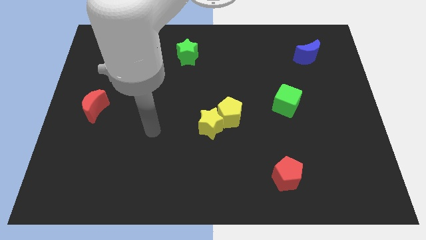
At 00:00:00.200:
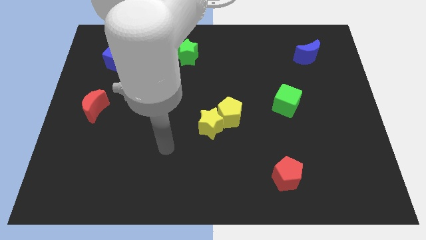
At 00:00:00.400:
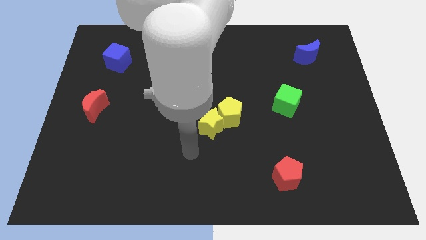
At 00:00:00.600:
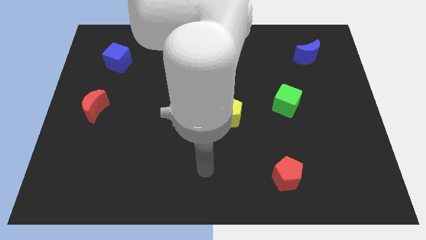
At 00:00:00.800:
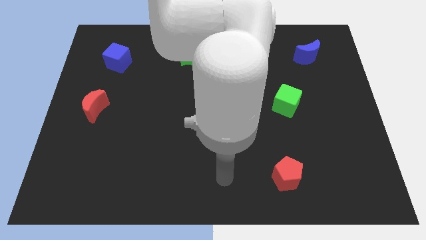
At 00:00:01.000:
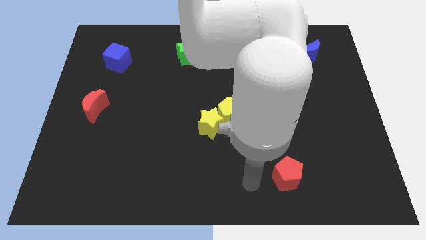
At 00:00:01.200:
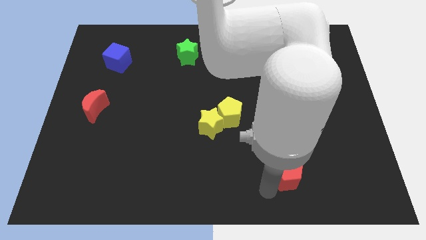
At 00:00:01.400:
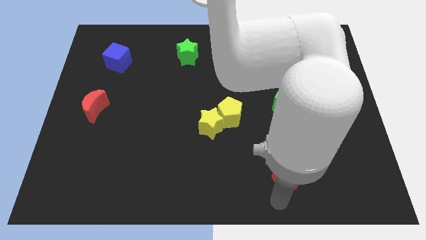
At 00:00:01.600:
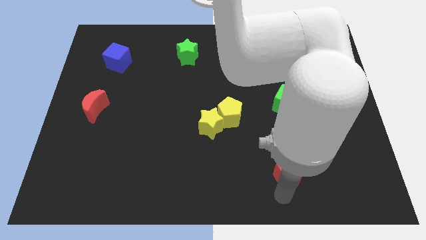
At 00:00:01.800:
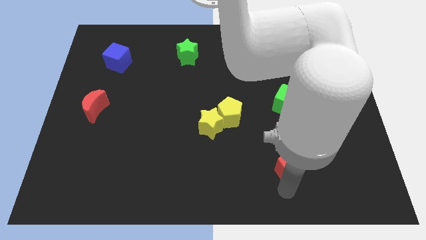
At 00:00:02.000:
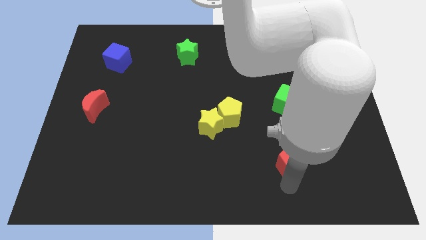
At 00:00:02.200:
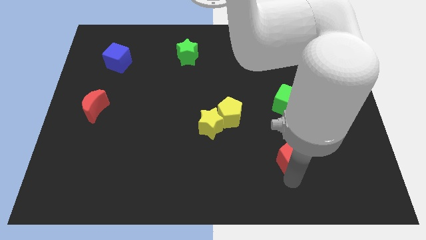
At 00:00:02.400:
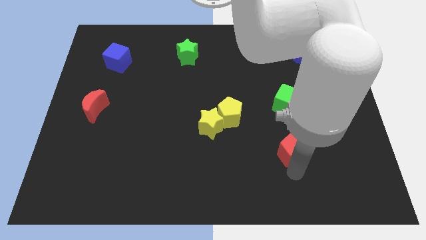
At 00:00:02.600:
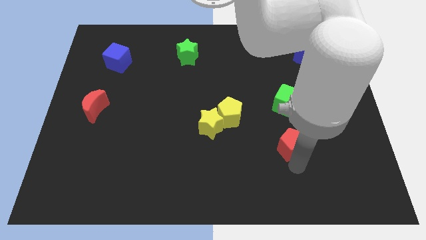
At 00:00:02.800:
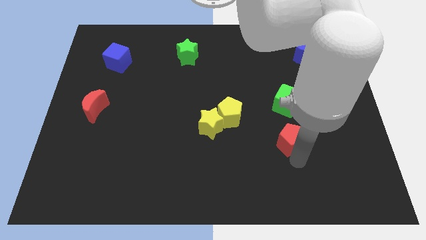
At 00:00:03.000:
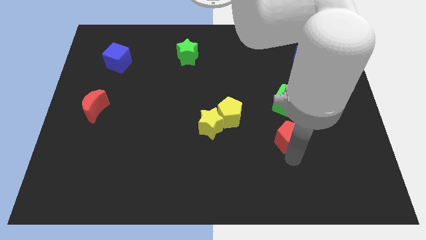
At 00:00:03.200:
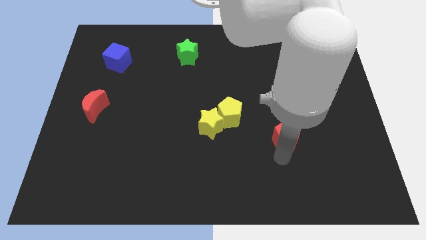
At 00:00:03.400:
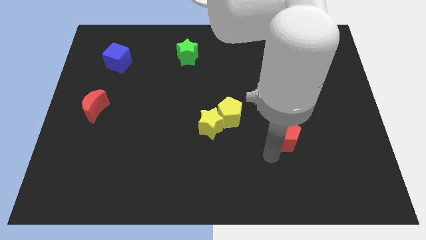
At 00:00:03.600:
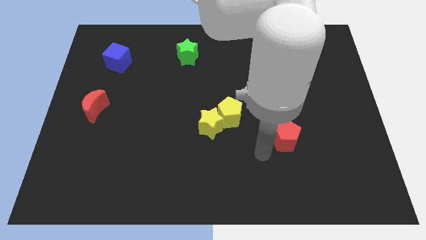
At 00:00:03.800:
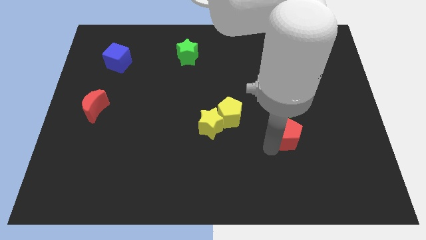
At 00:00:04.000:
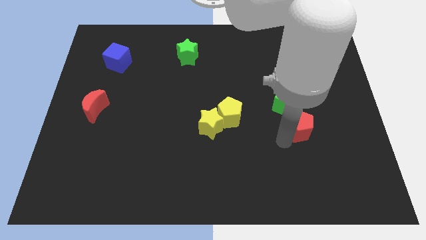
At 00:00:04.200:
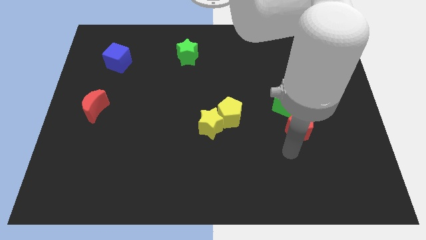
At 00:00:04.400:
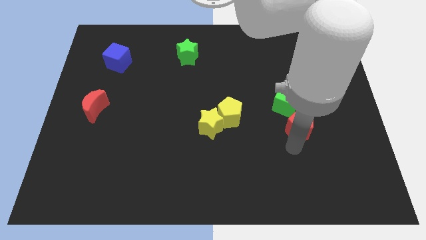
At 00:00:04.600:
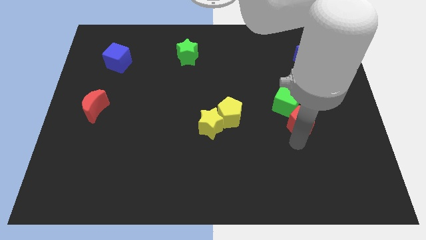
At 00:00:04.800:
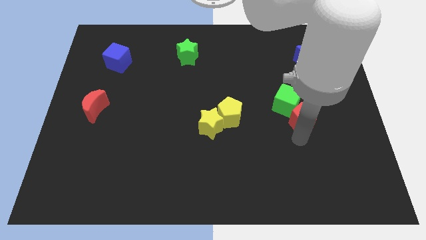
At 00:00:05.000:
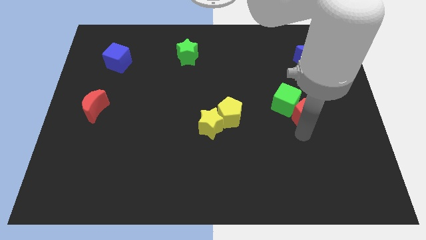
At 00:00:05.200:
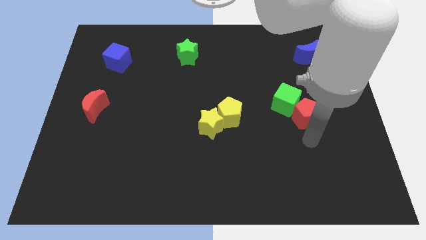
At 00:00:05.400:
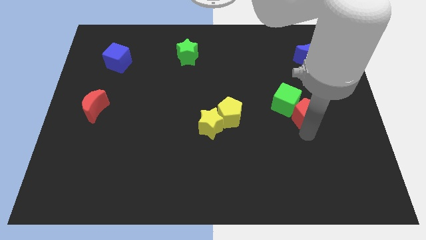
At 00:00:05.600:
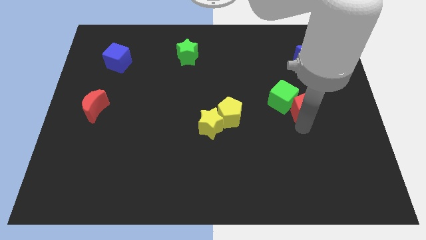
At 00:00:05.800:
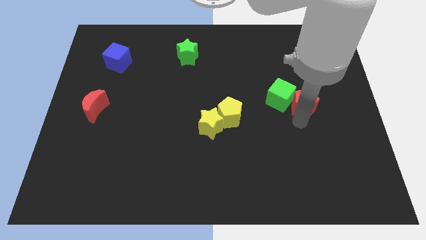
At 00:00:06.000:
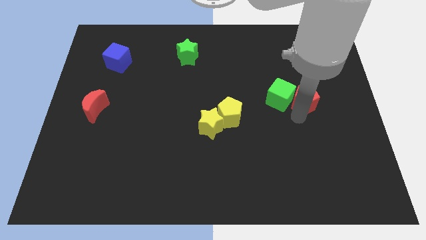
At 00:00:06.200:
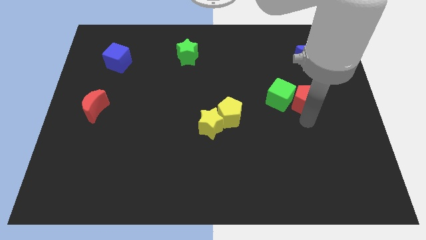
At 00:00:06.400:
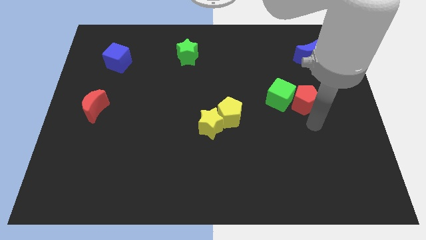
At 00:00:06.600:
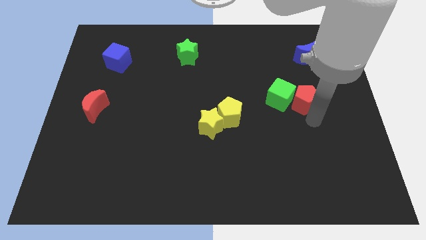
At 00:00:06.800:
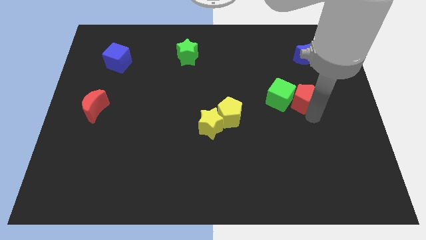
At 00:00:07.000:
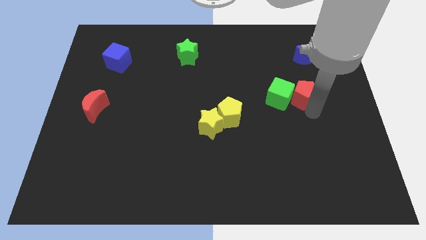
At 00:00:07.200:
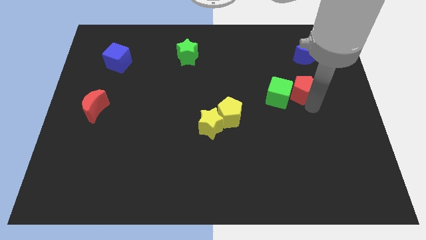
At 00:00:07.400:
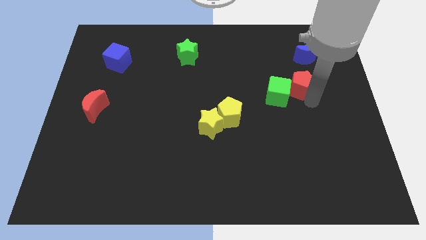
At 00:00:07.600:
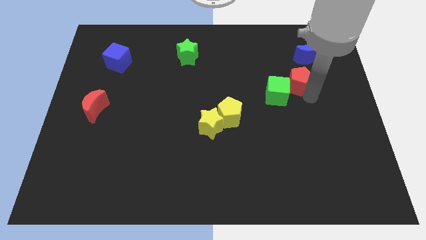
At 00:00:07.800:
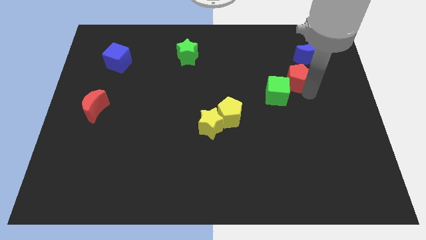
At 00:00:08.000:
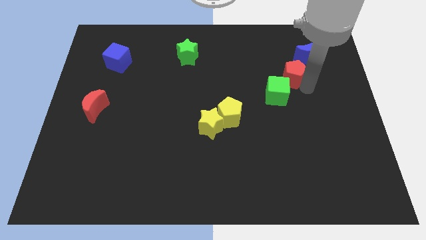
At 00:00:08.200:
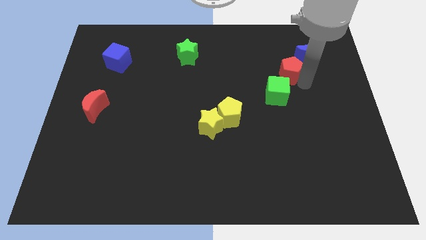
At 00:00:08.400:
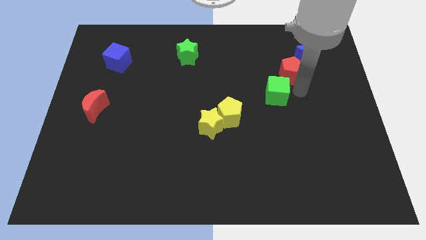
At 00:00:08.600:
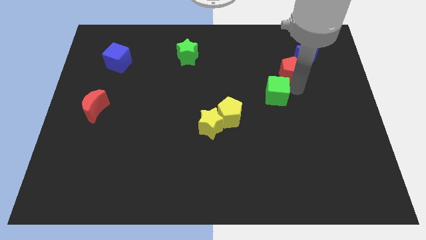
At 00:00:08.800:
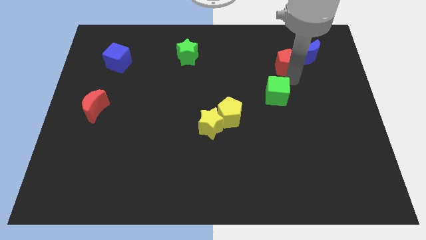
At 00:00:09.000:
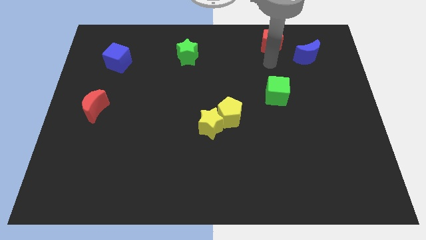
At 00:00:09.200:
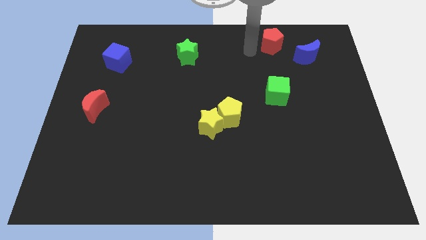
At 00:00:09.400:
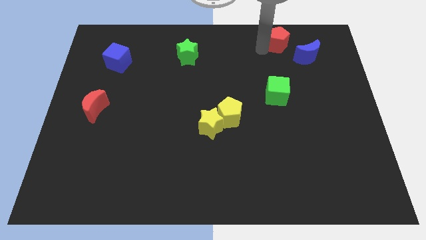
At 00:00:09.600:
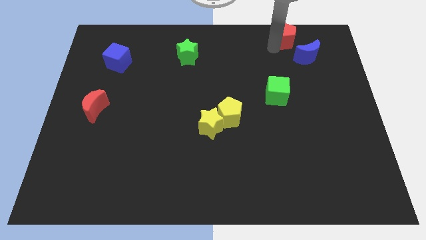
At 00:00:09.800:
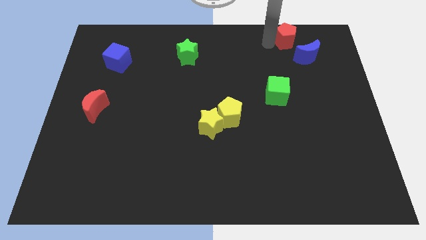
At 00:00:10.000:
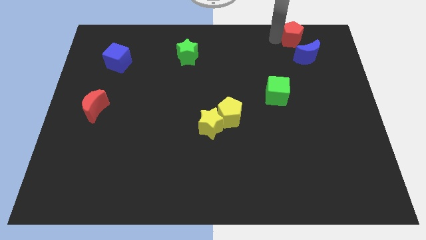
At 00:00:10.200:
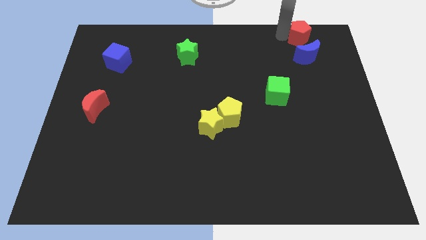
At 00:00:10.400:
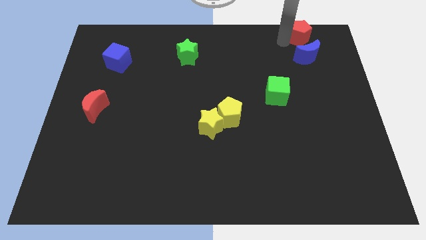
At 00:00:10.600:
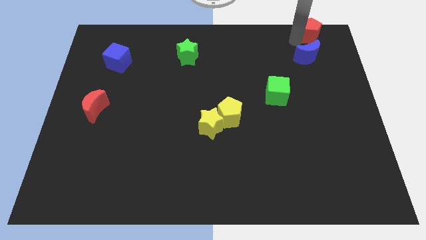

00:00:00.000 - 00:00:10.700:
push the red pentagon to the top right corner

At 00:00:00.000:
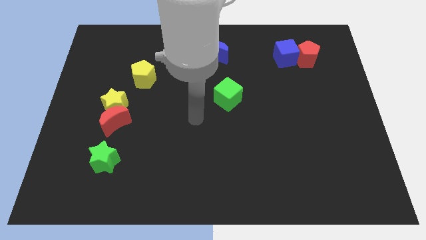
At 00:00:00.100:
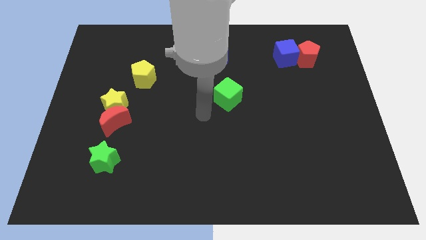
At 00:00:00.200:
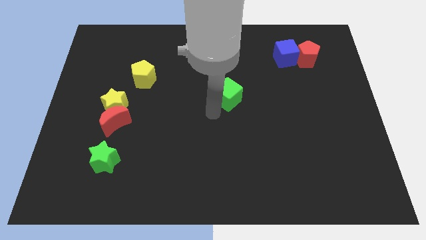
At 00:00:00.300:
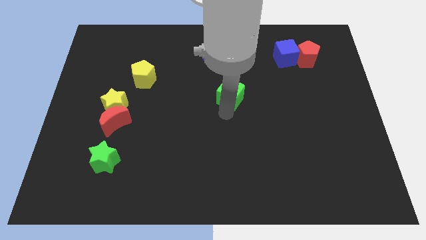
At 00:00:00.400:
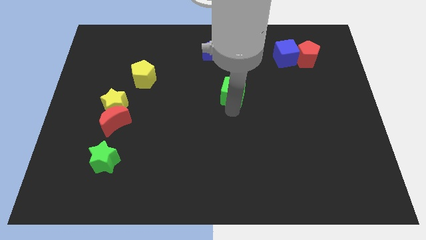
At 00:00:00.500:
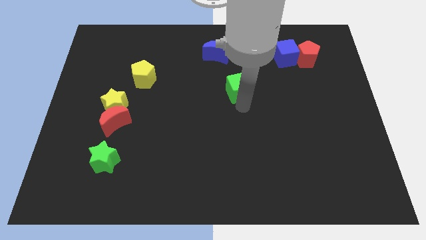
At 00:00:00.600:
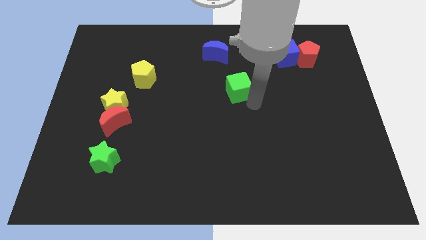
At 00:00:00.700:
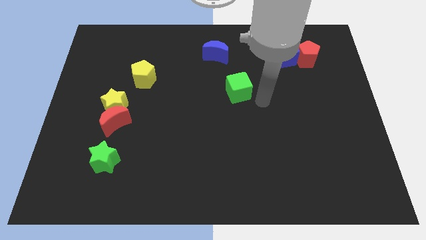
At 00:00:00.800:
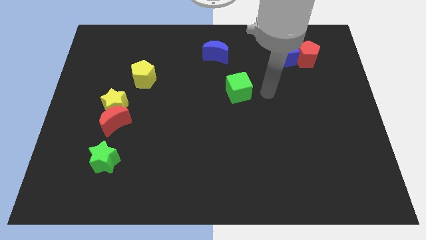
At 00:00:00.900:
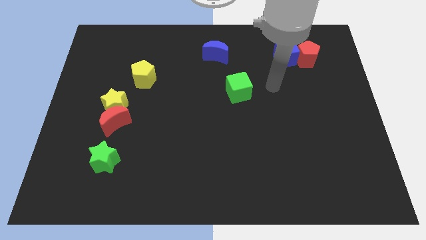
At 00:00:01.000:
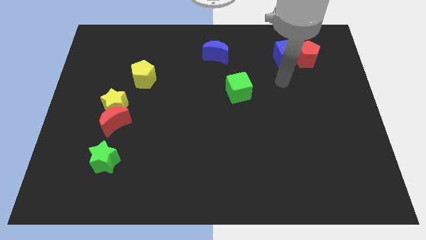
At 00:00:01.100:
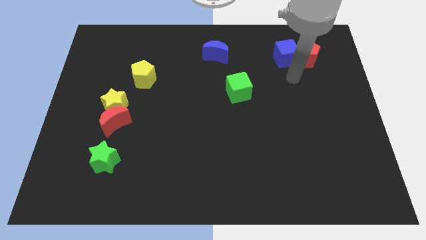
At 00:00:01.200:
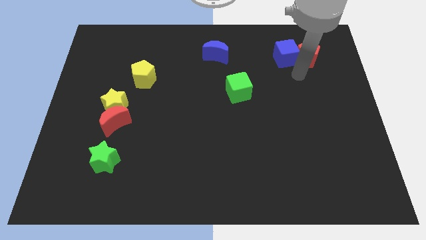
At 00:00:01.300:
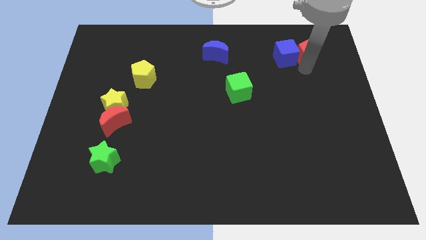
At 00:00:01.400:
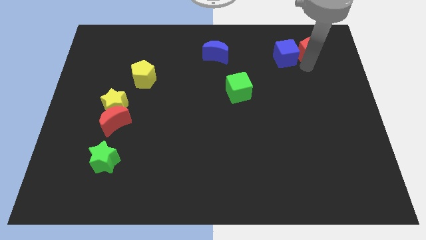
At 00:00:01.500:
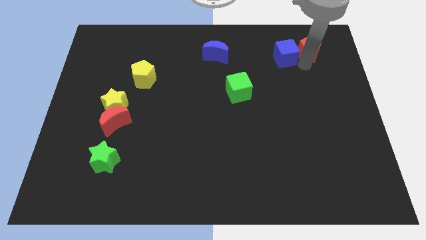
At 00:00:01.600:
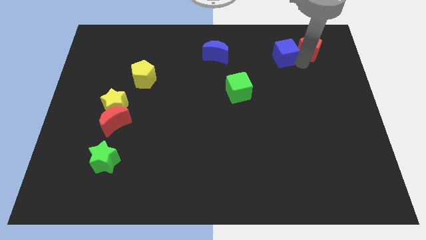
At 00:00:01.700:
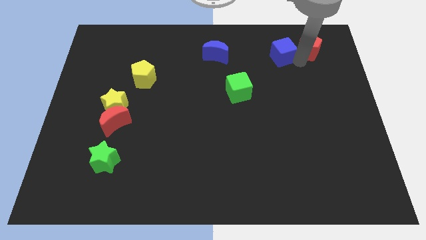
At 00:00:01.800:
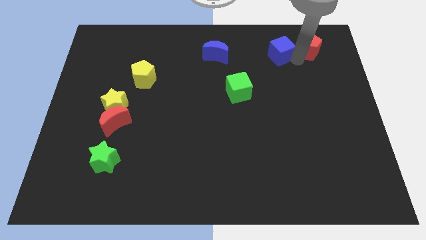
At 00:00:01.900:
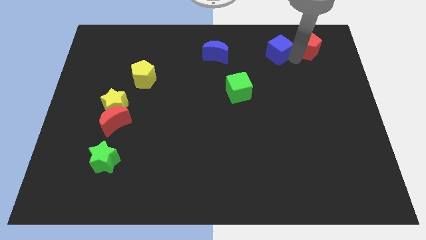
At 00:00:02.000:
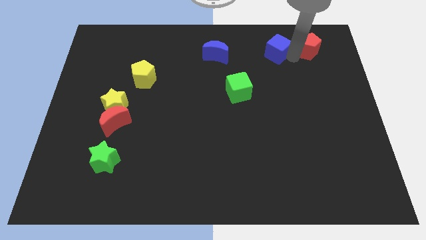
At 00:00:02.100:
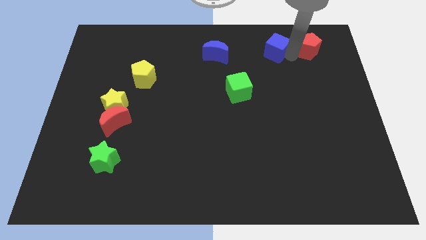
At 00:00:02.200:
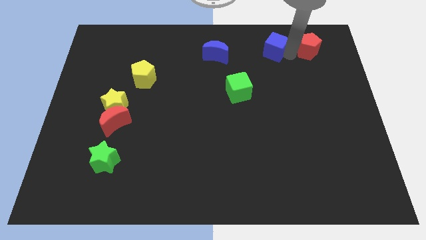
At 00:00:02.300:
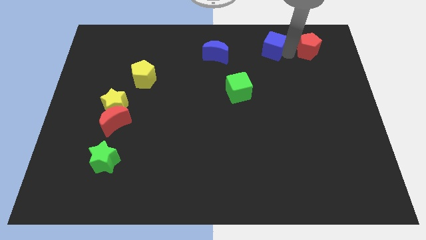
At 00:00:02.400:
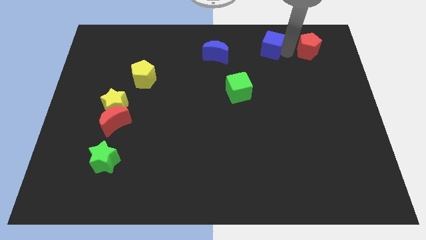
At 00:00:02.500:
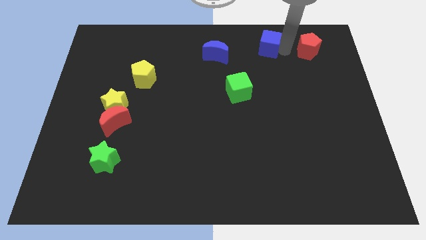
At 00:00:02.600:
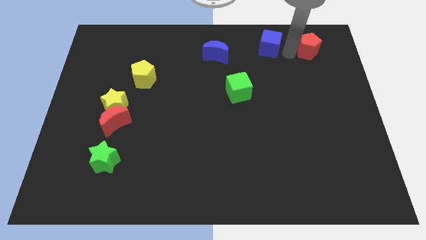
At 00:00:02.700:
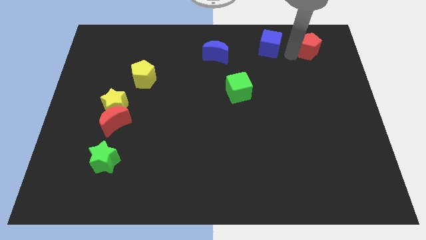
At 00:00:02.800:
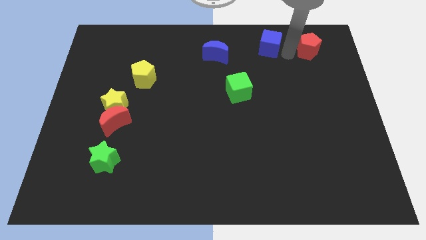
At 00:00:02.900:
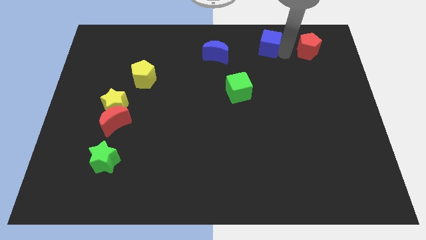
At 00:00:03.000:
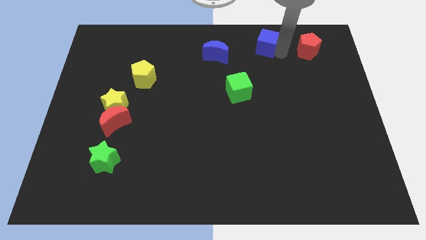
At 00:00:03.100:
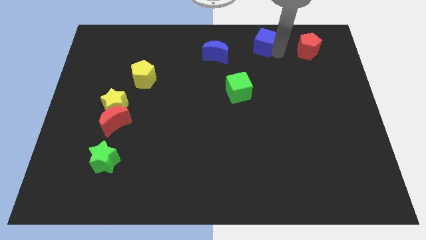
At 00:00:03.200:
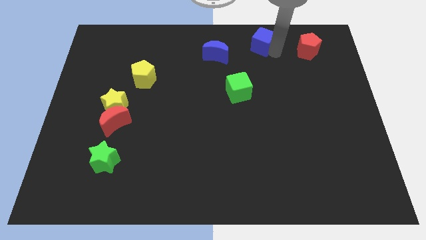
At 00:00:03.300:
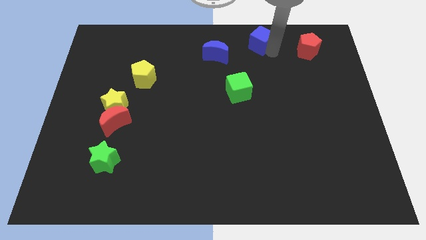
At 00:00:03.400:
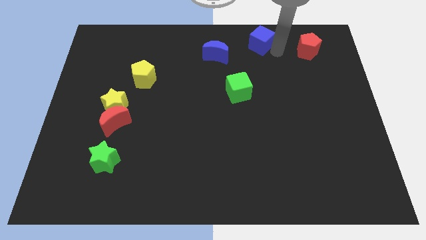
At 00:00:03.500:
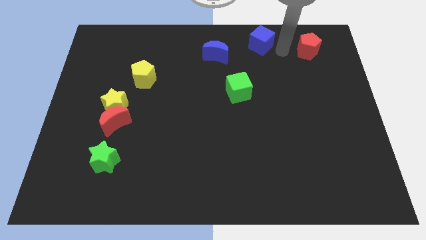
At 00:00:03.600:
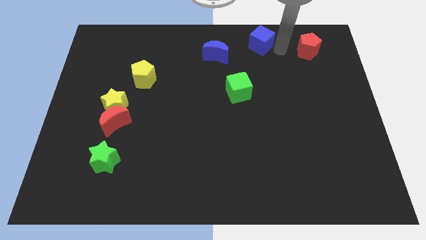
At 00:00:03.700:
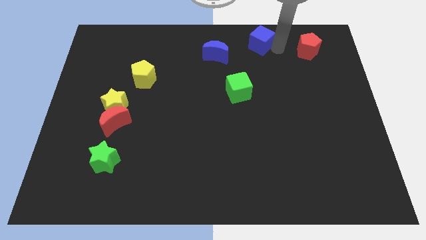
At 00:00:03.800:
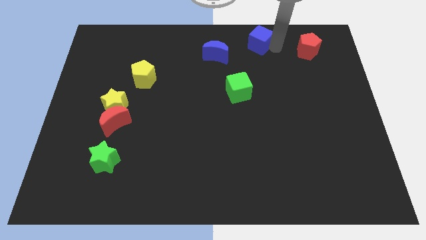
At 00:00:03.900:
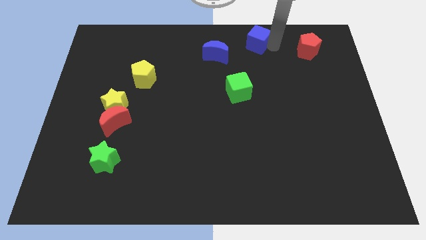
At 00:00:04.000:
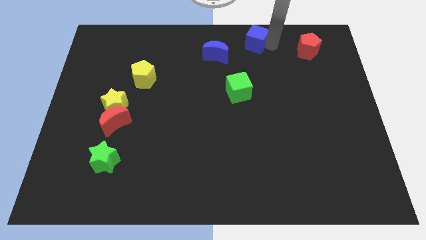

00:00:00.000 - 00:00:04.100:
move the blue cube to the top side
